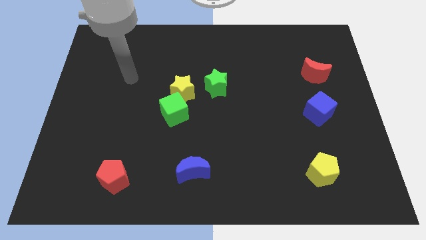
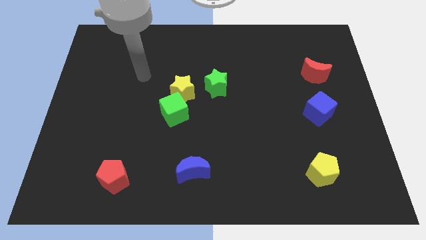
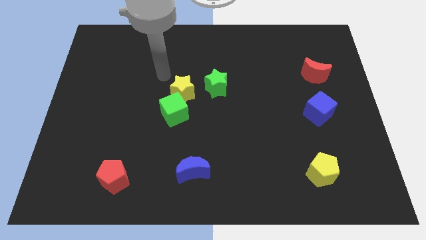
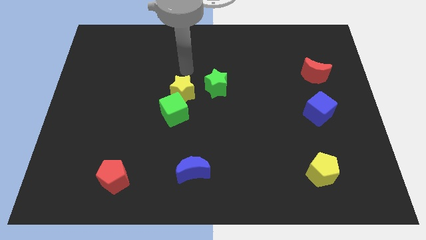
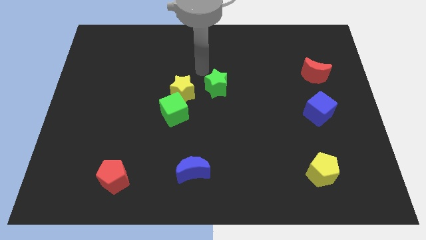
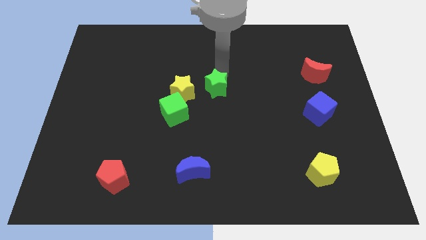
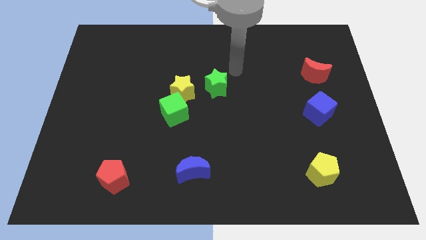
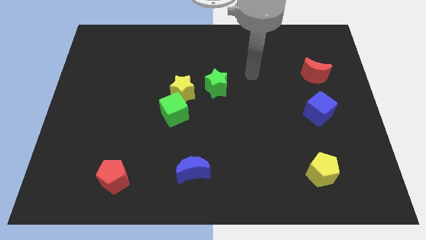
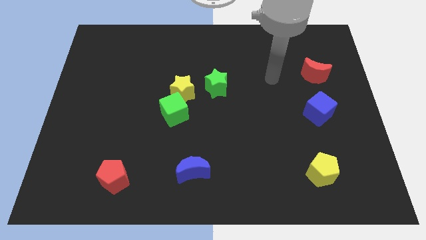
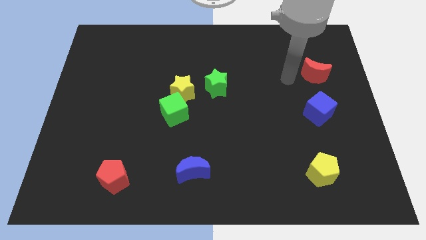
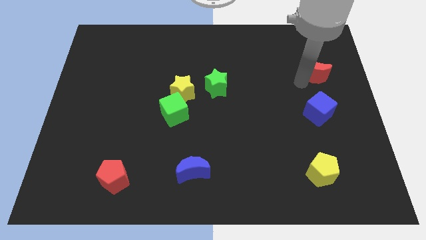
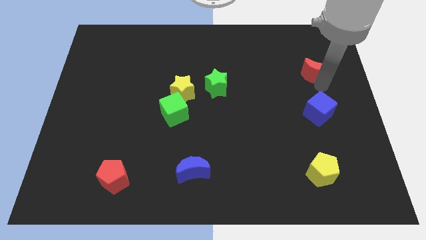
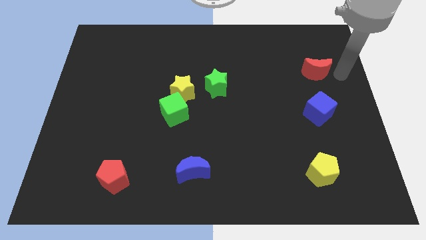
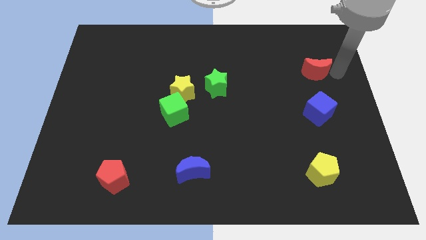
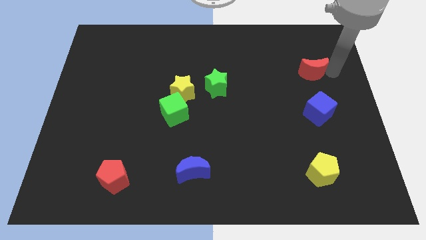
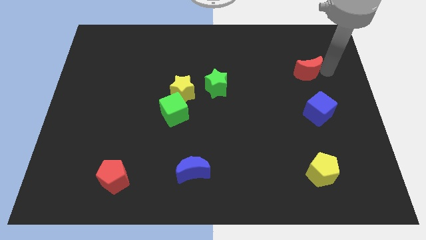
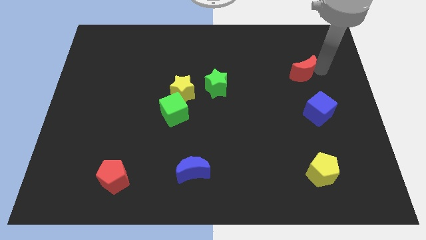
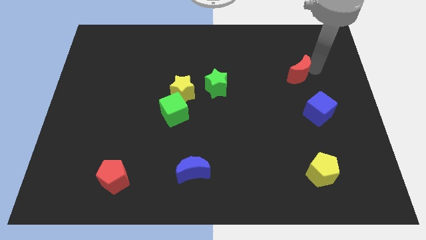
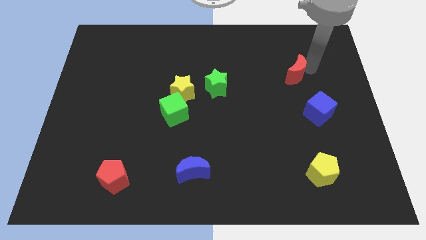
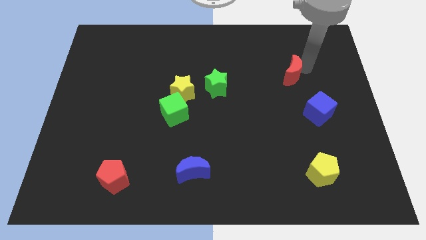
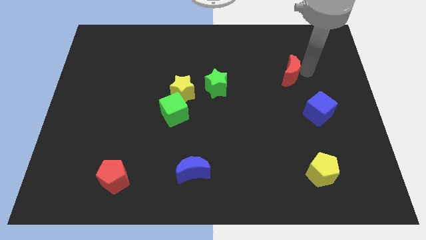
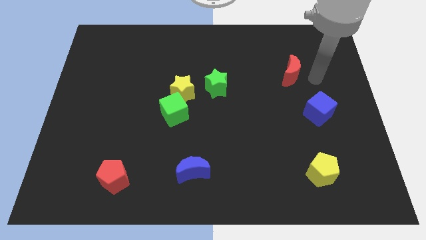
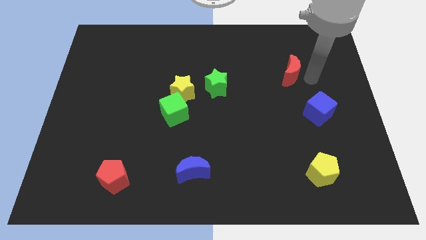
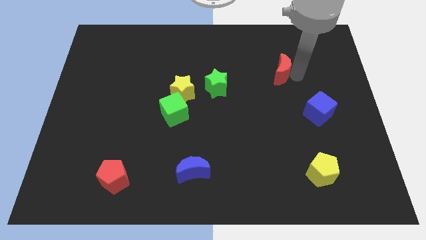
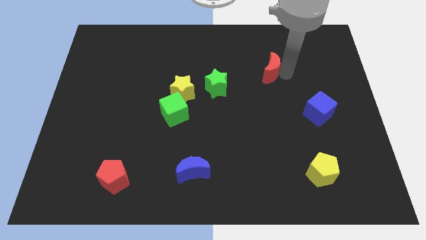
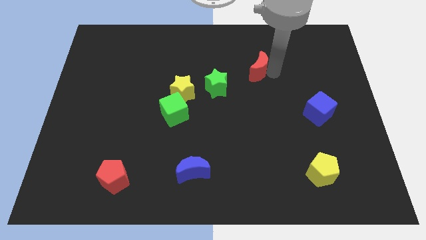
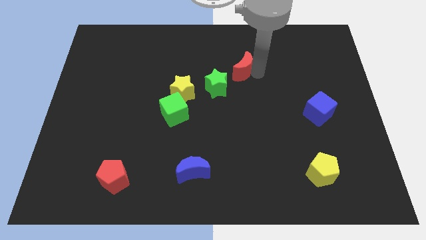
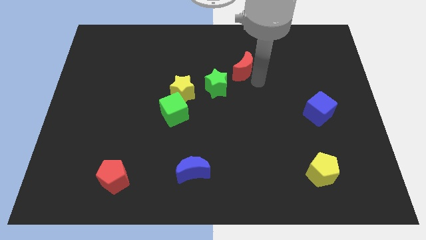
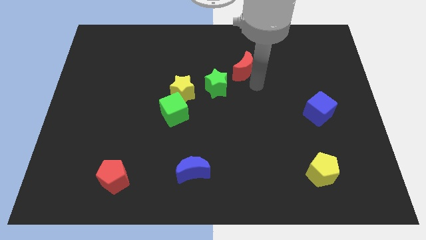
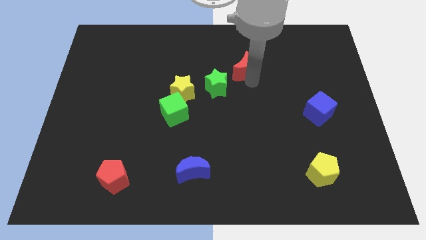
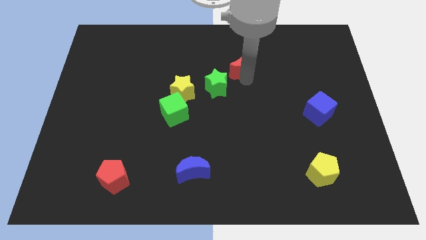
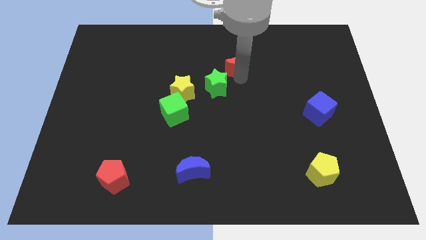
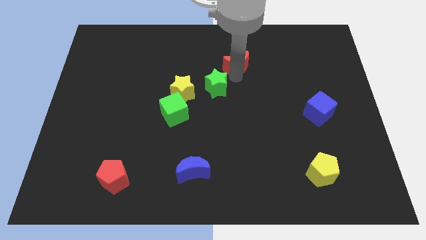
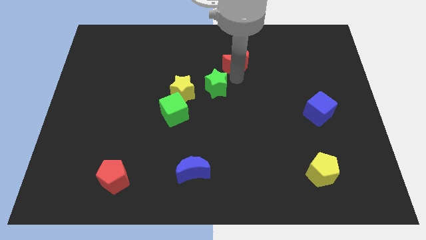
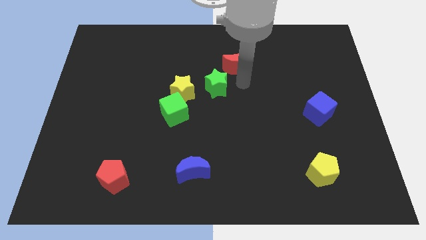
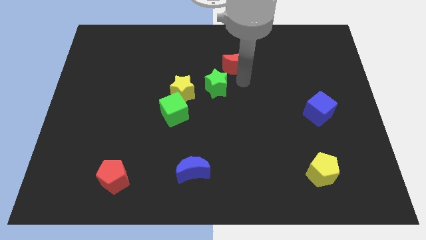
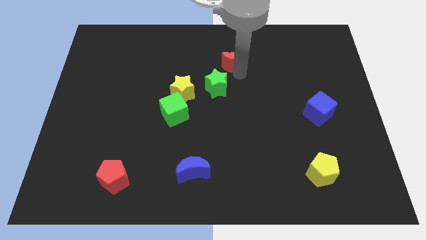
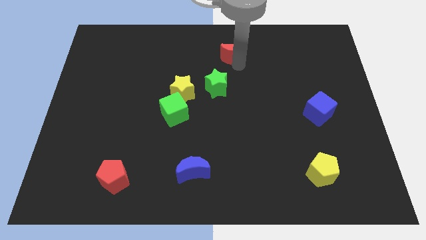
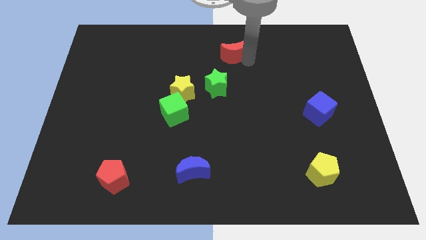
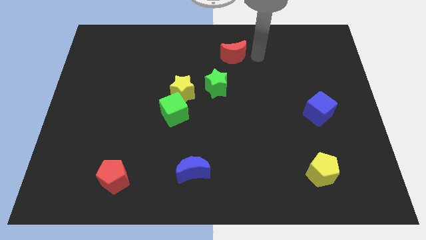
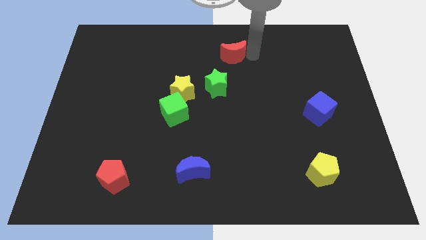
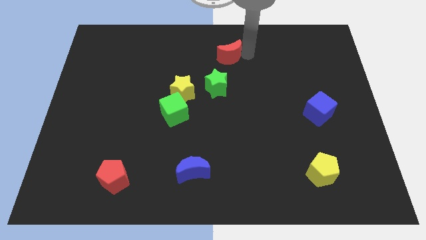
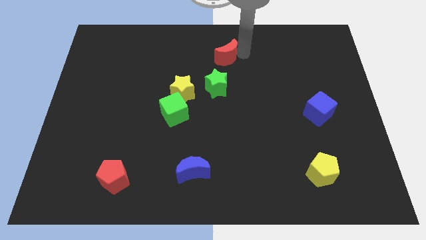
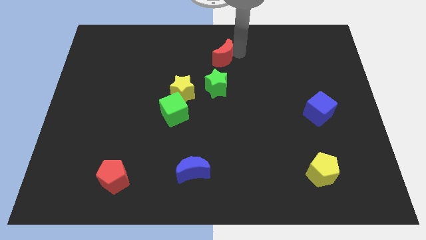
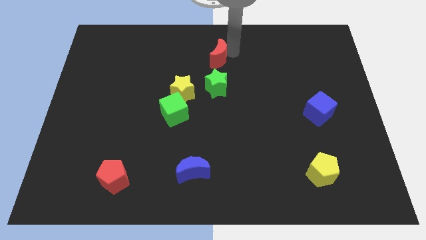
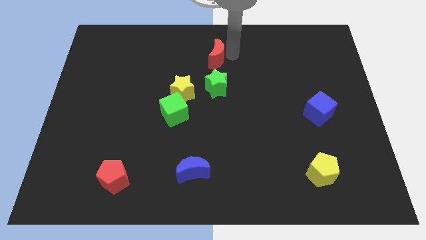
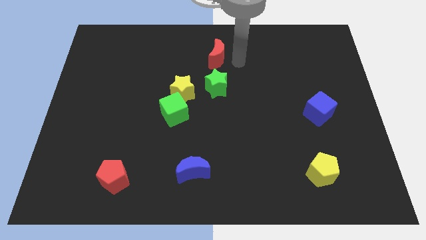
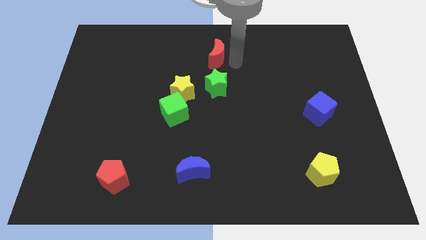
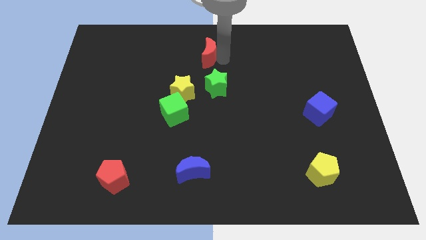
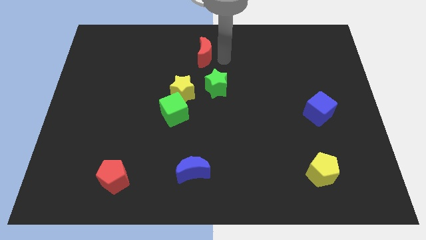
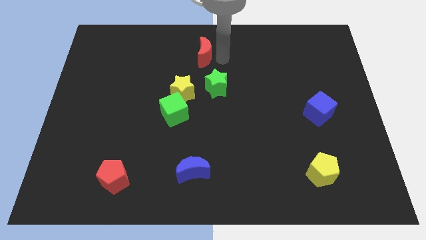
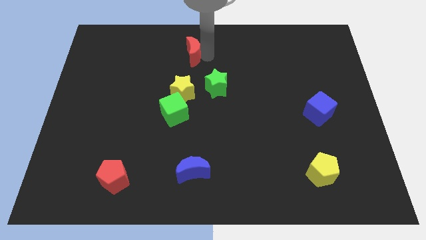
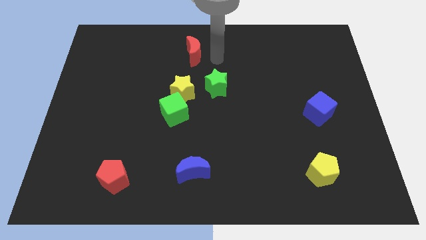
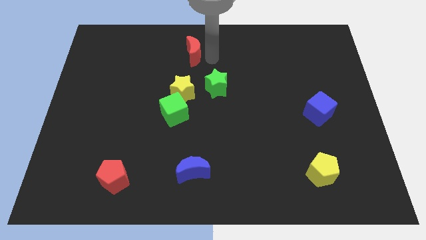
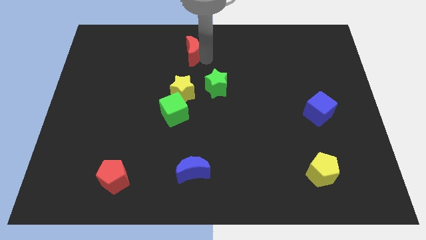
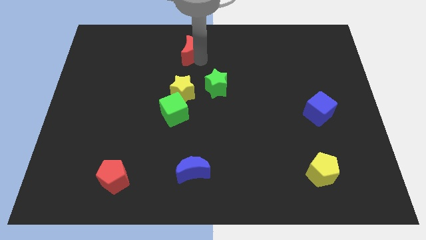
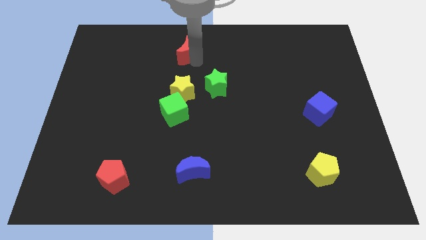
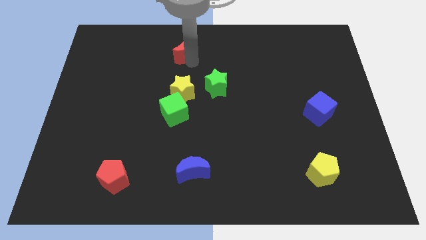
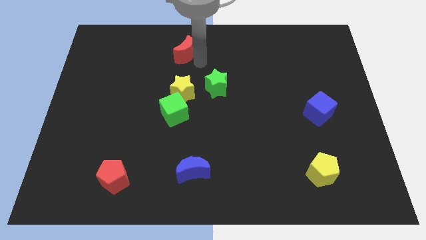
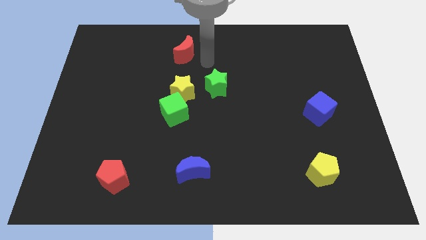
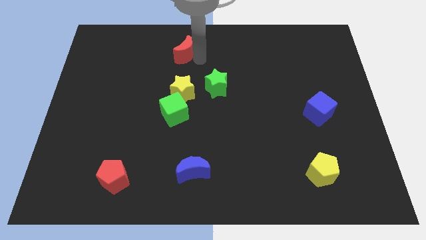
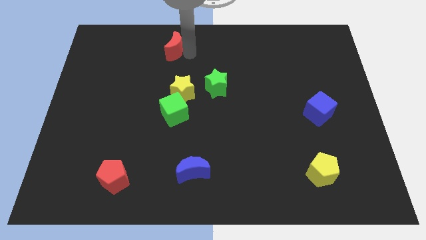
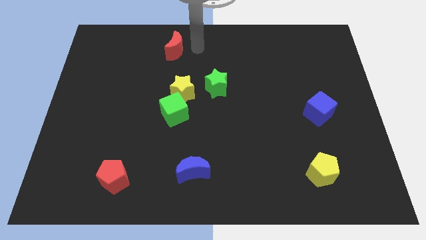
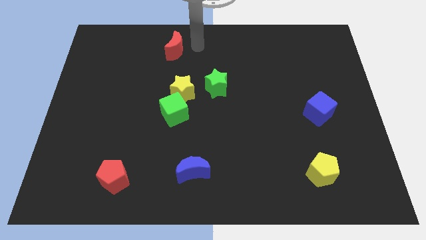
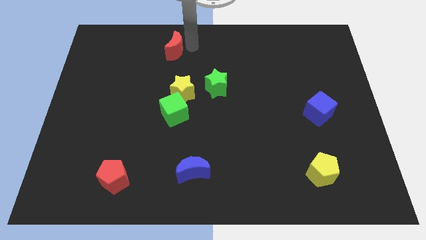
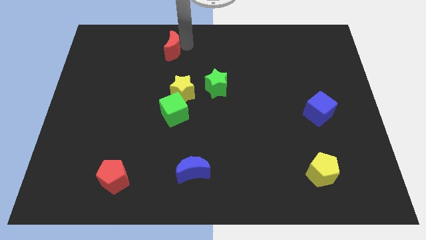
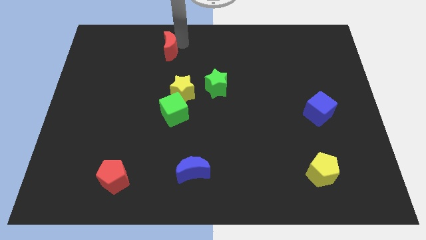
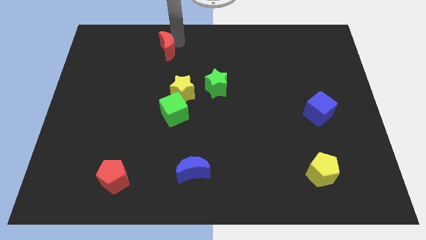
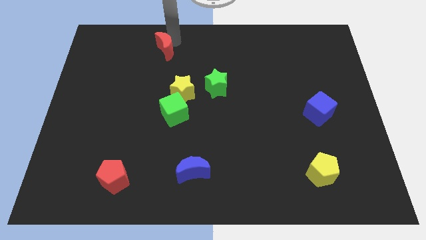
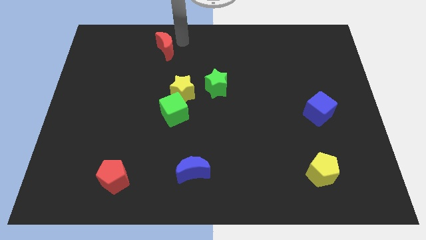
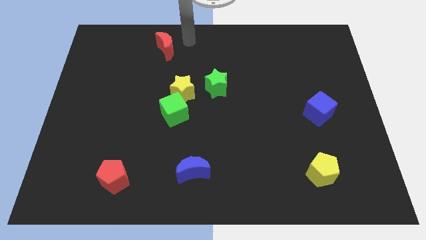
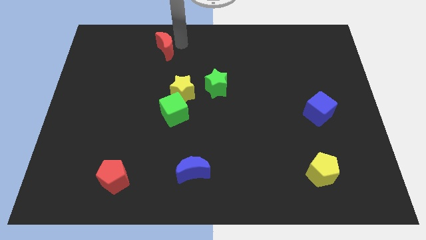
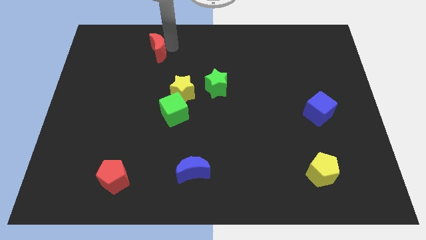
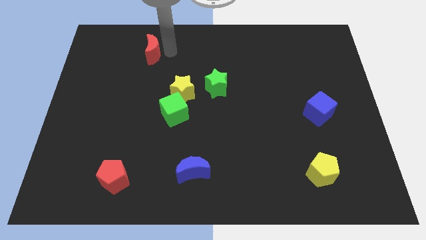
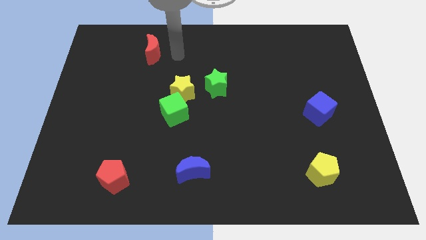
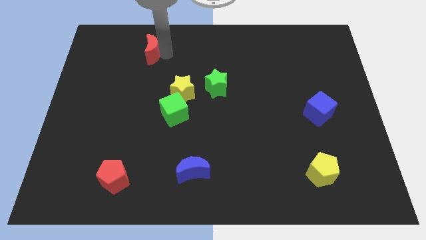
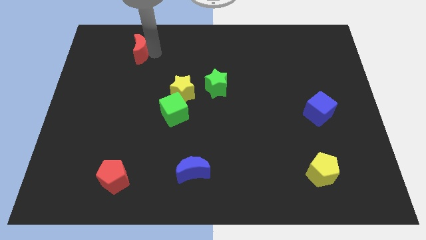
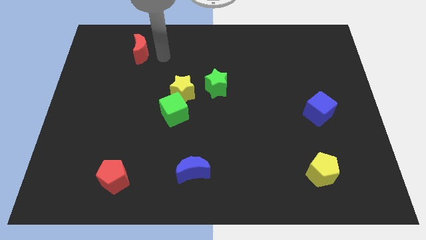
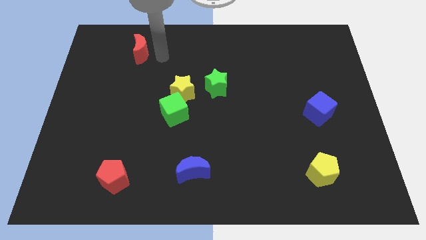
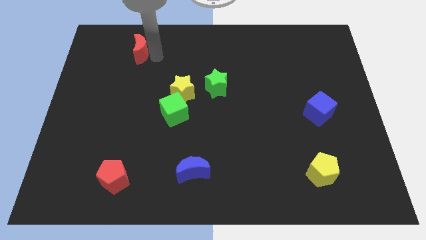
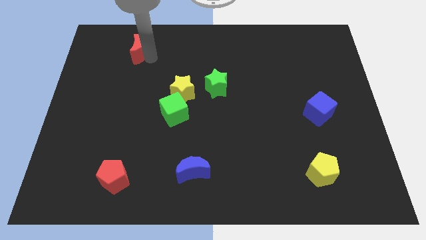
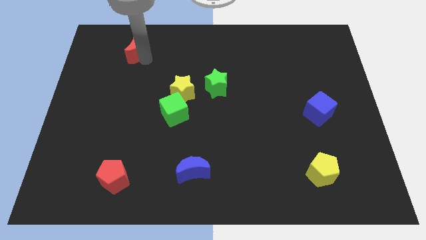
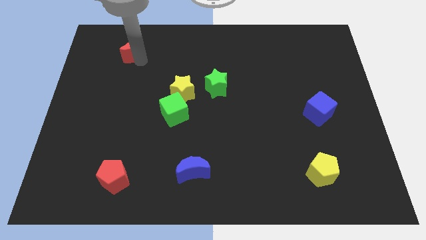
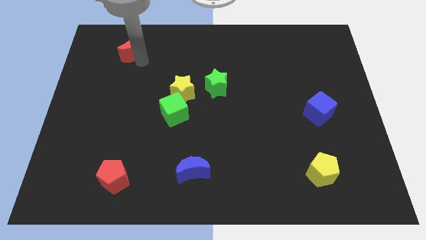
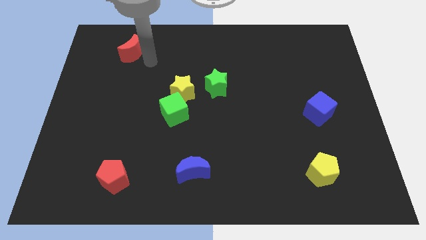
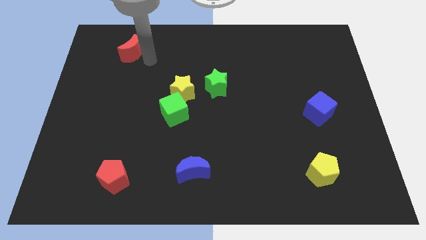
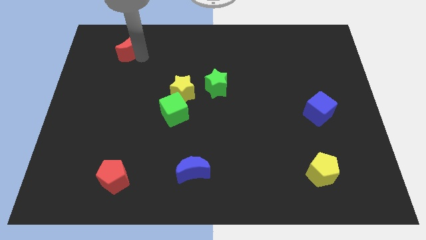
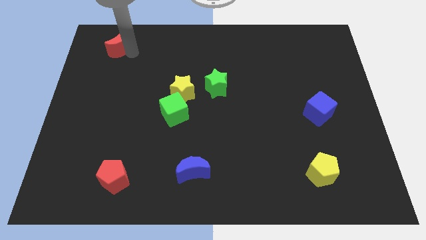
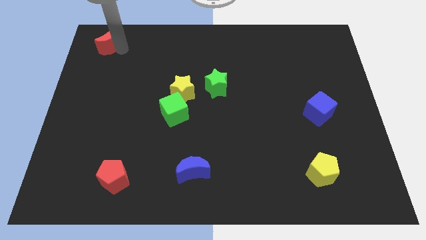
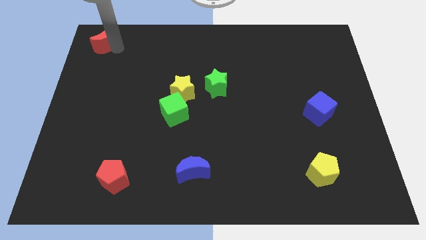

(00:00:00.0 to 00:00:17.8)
push the red moon to the upper left corner
